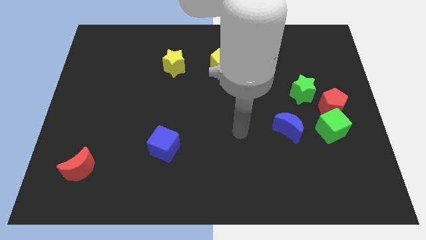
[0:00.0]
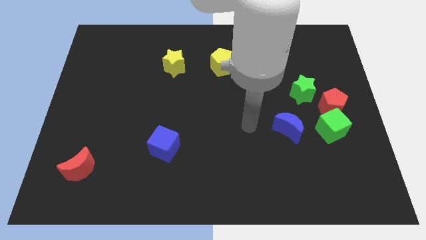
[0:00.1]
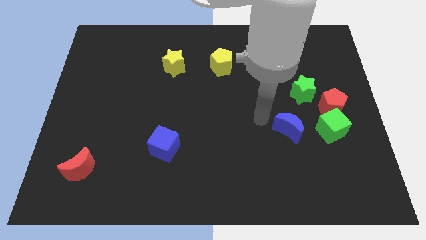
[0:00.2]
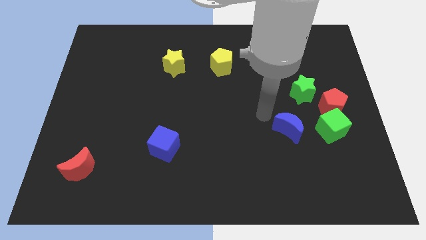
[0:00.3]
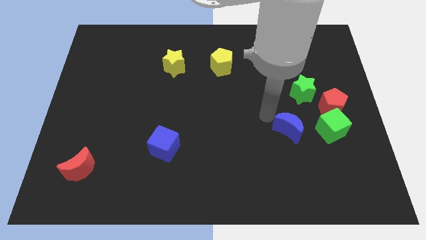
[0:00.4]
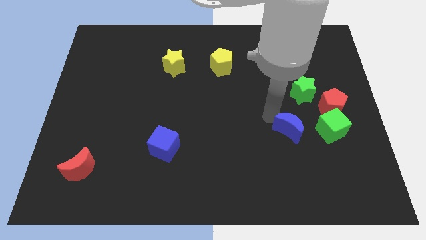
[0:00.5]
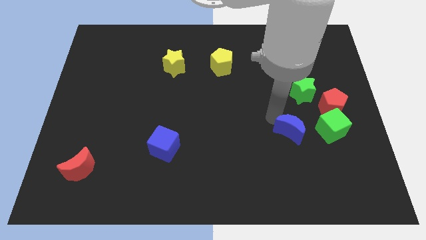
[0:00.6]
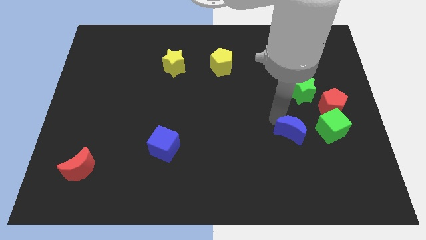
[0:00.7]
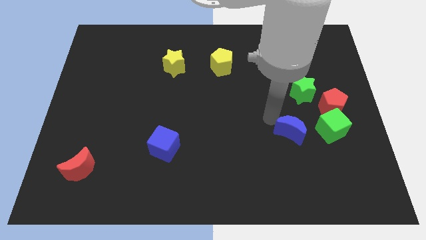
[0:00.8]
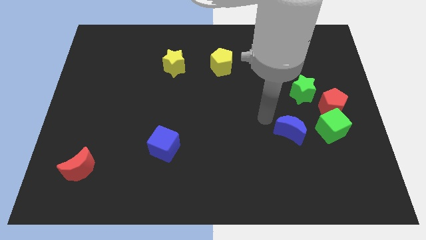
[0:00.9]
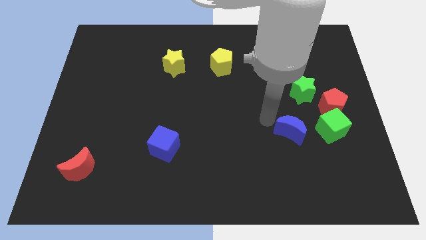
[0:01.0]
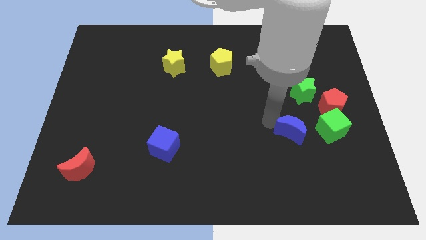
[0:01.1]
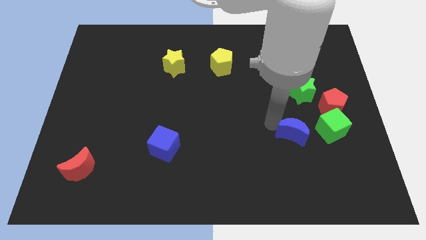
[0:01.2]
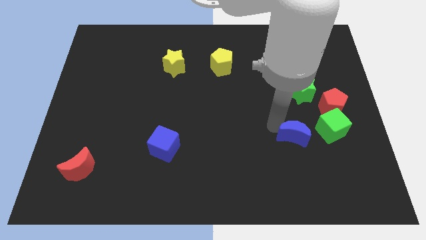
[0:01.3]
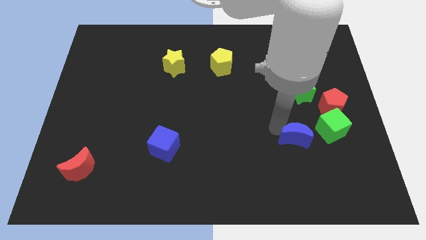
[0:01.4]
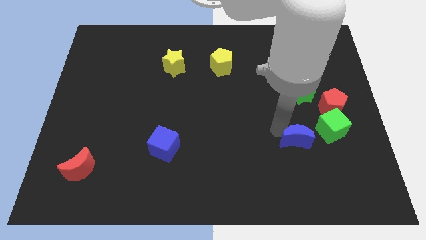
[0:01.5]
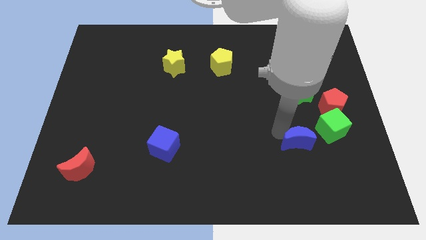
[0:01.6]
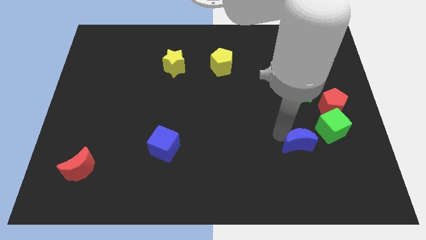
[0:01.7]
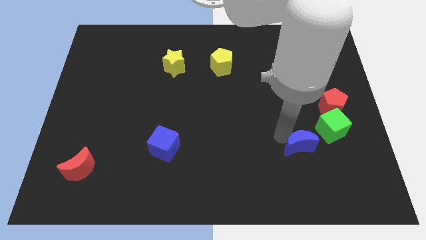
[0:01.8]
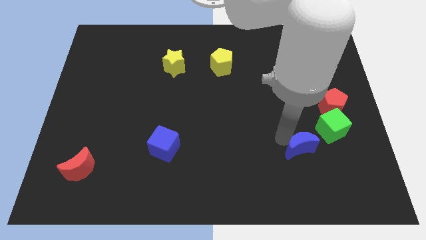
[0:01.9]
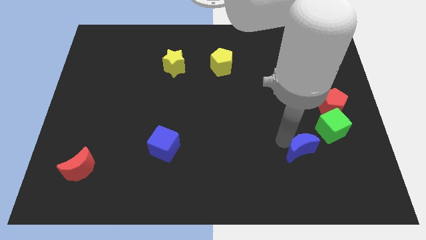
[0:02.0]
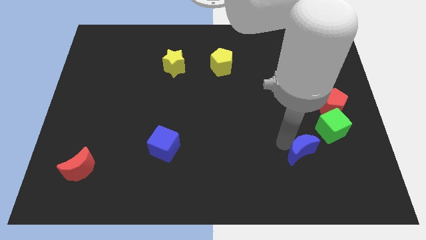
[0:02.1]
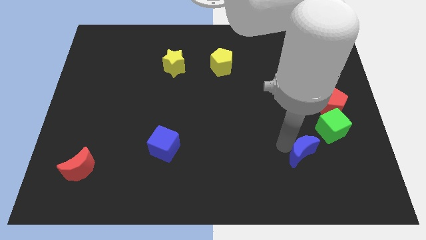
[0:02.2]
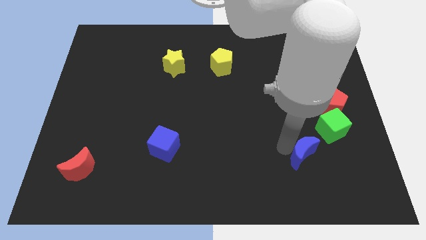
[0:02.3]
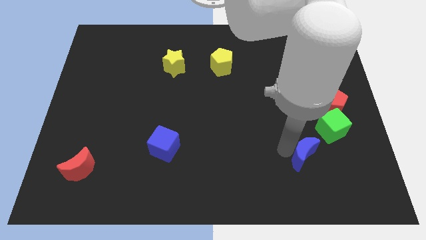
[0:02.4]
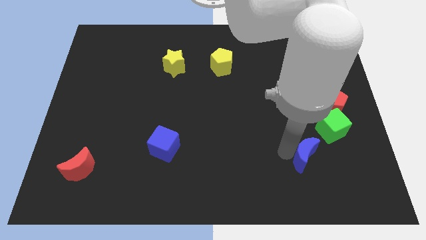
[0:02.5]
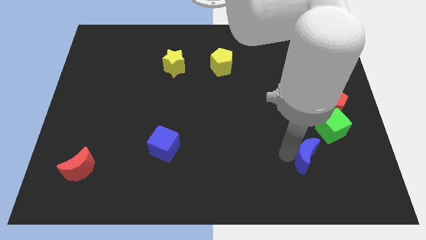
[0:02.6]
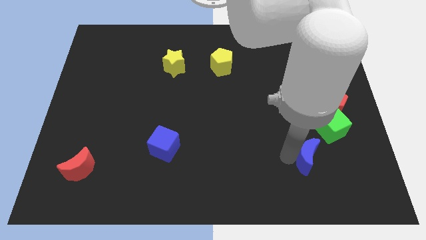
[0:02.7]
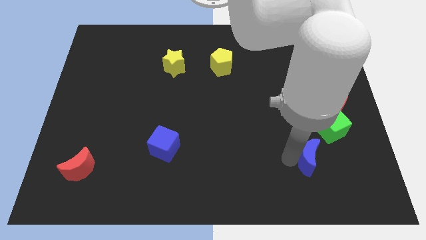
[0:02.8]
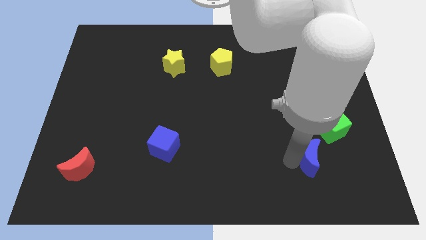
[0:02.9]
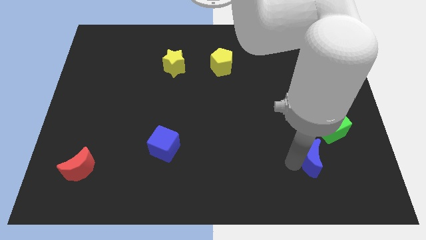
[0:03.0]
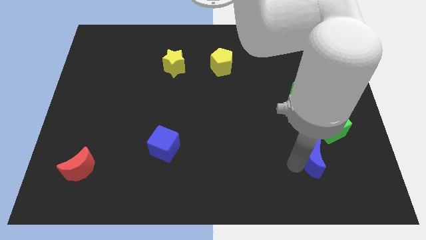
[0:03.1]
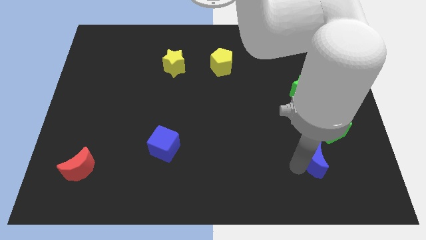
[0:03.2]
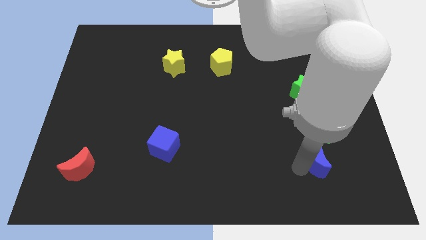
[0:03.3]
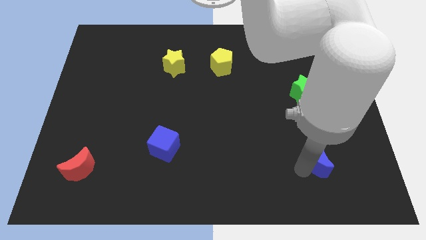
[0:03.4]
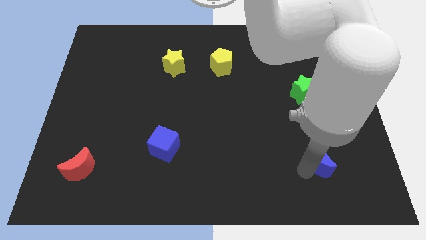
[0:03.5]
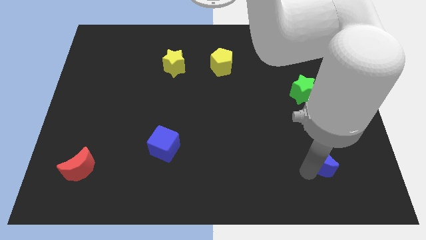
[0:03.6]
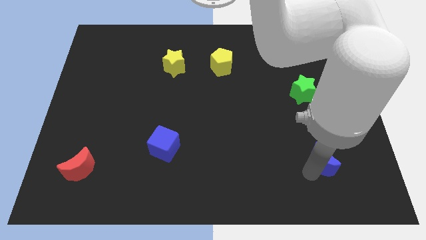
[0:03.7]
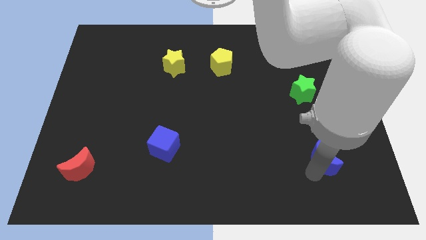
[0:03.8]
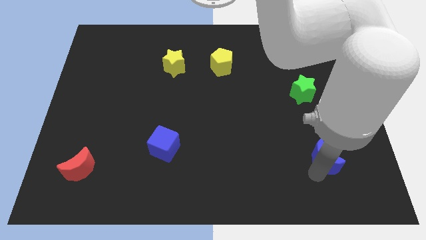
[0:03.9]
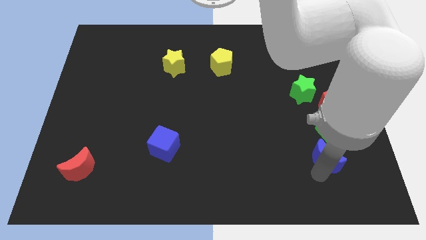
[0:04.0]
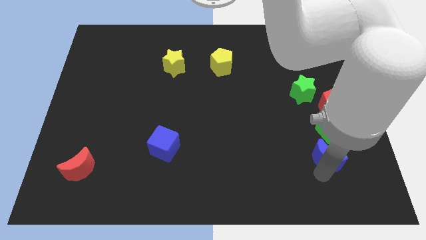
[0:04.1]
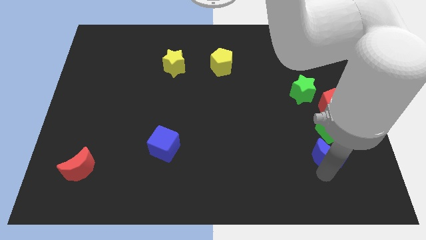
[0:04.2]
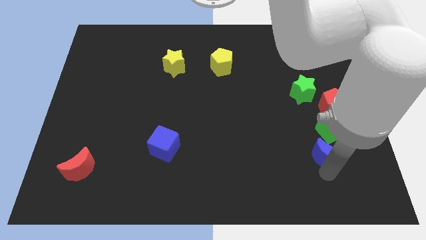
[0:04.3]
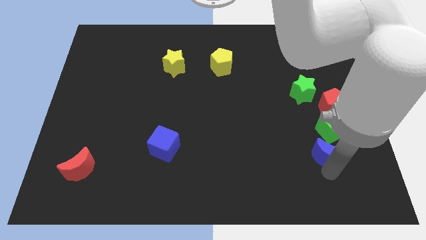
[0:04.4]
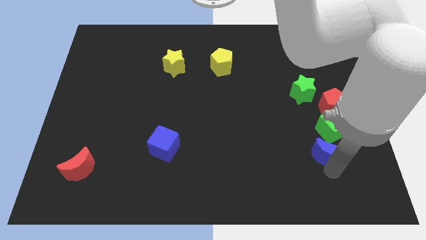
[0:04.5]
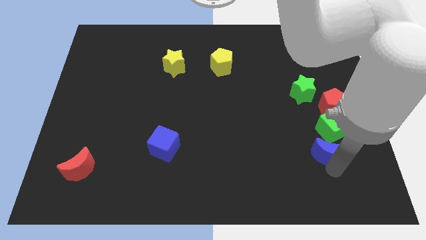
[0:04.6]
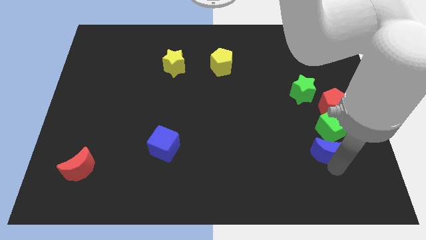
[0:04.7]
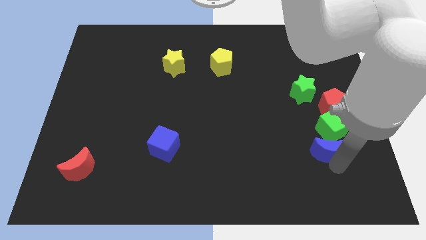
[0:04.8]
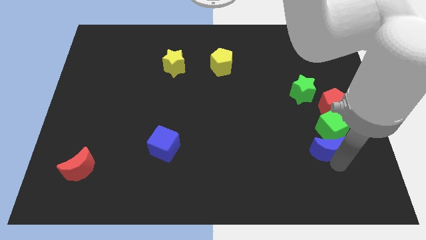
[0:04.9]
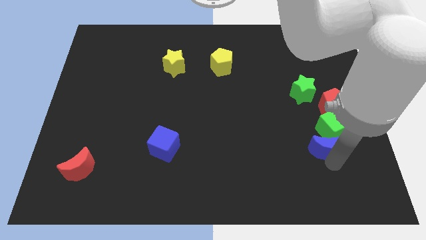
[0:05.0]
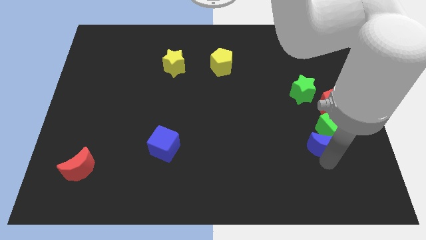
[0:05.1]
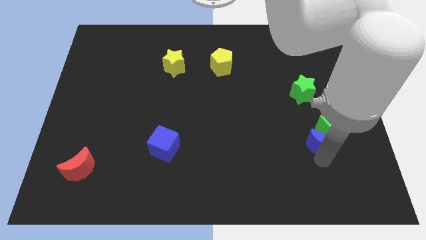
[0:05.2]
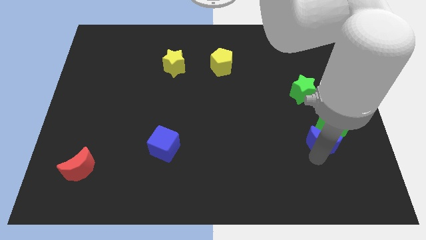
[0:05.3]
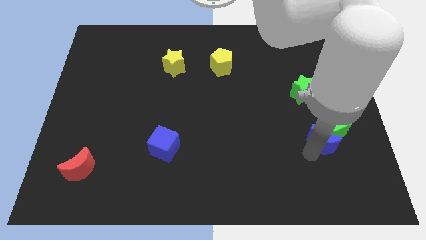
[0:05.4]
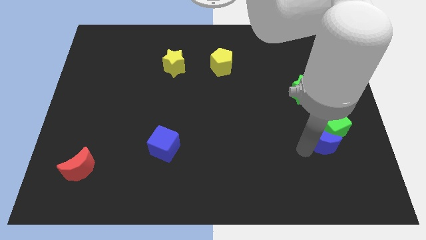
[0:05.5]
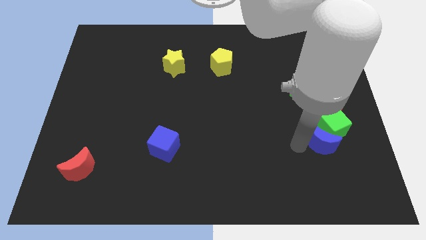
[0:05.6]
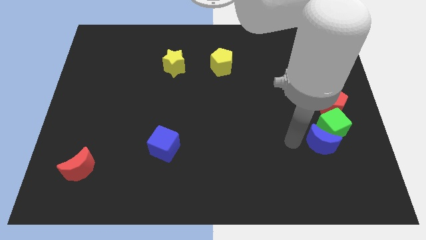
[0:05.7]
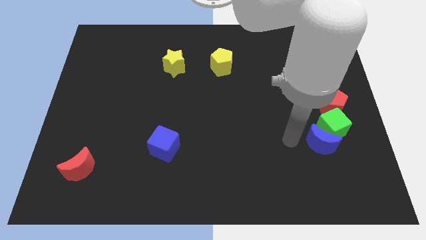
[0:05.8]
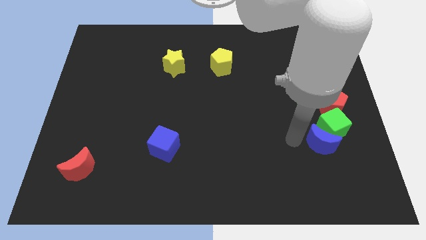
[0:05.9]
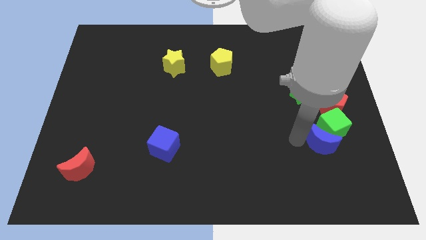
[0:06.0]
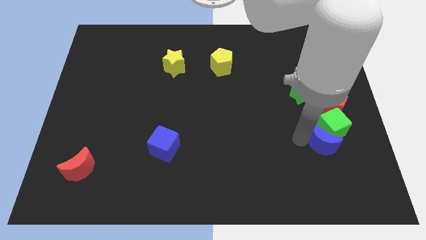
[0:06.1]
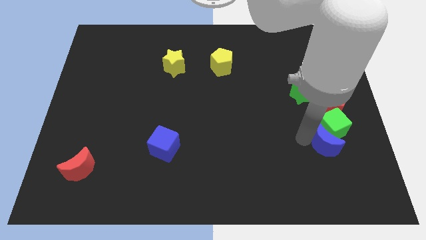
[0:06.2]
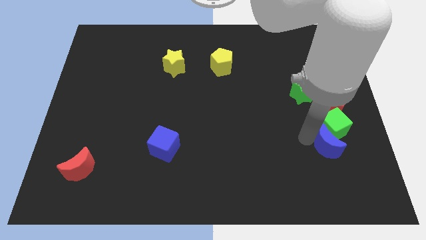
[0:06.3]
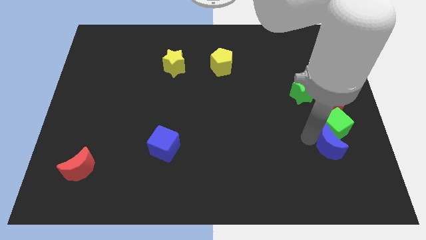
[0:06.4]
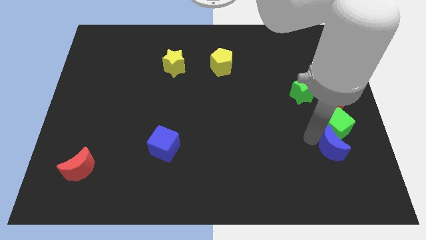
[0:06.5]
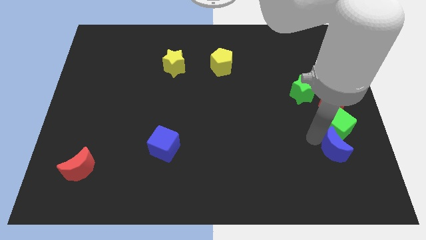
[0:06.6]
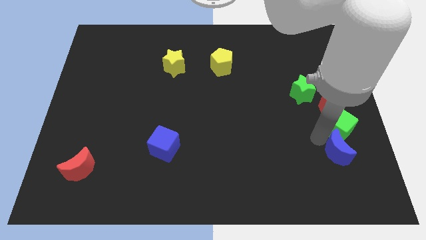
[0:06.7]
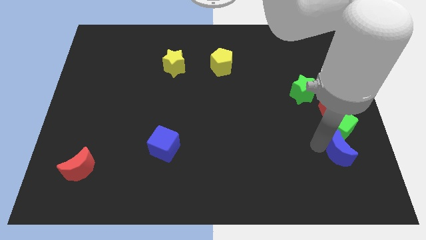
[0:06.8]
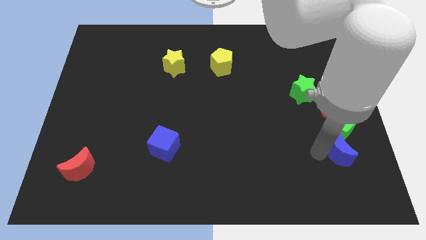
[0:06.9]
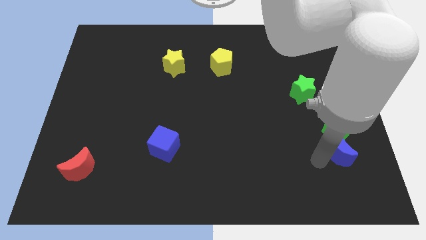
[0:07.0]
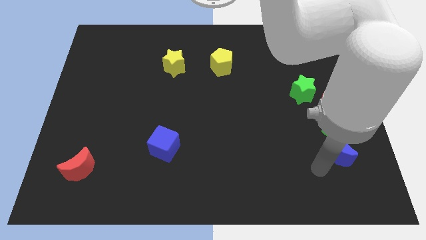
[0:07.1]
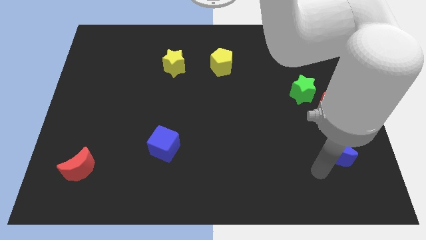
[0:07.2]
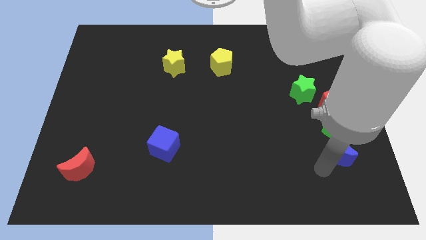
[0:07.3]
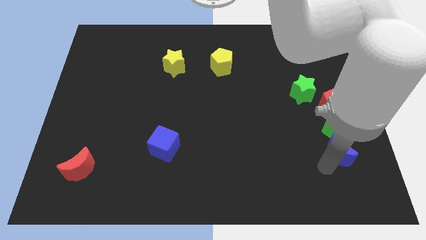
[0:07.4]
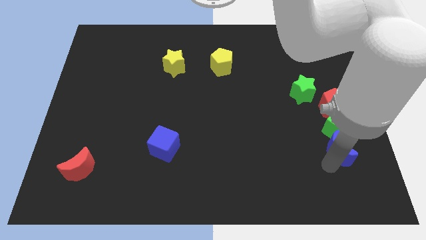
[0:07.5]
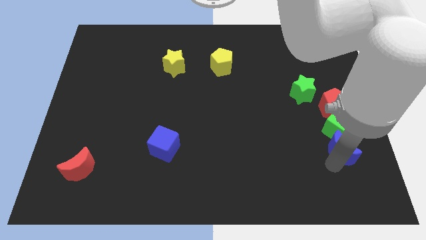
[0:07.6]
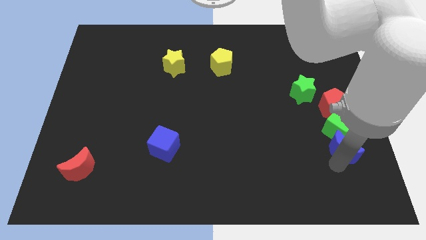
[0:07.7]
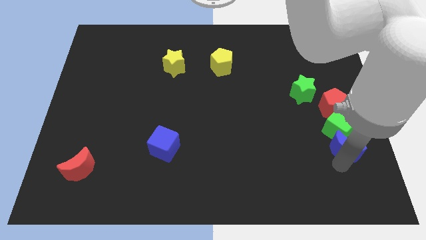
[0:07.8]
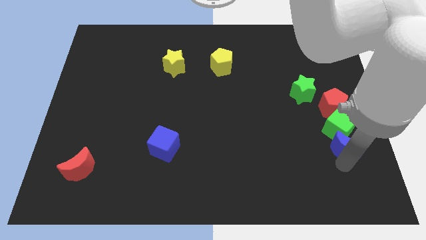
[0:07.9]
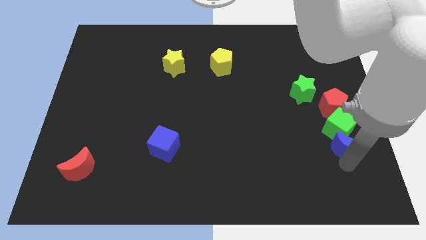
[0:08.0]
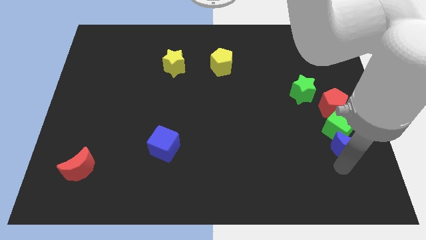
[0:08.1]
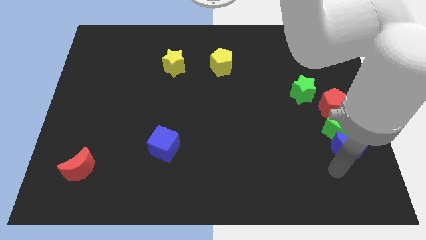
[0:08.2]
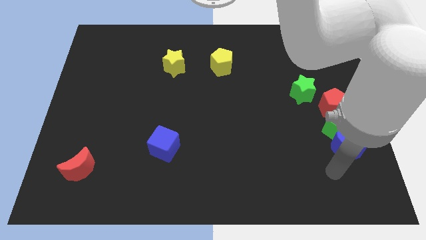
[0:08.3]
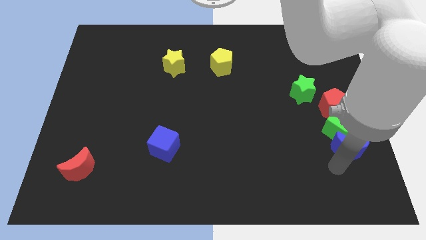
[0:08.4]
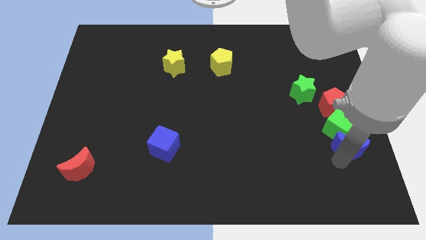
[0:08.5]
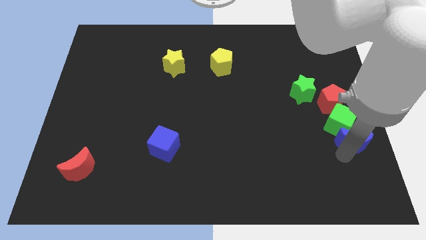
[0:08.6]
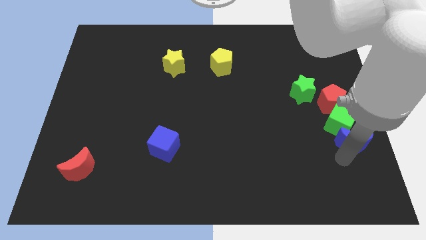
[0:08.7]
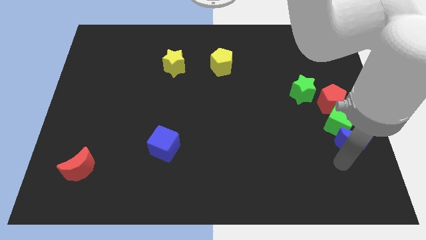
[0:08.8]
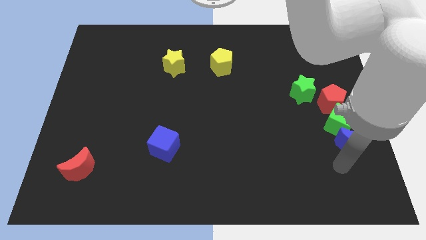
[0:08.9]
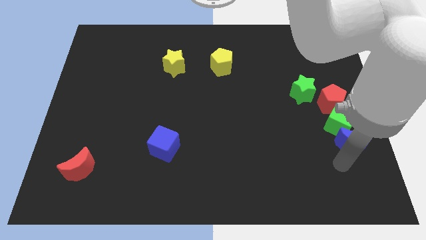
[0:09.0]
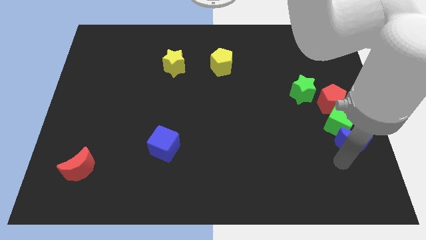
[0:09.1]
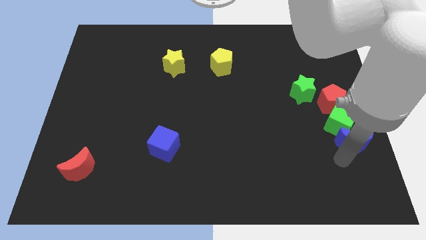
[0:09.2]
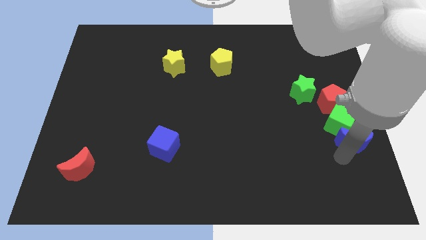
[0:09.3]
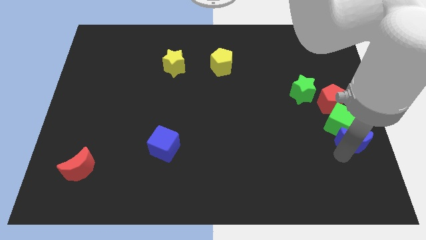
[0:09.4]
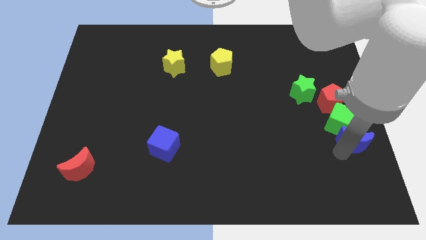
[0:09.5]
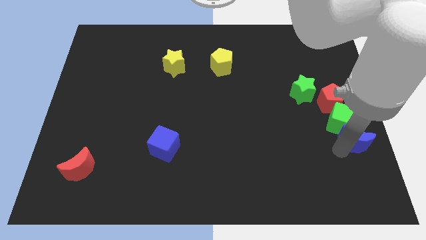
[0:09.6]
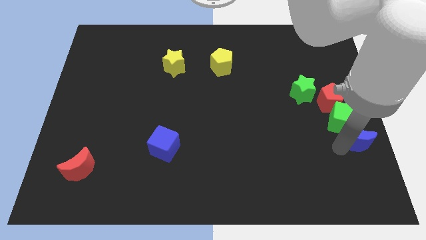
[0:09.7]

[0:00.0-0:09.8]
move the blue moon to the right side
